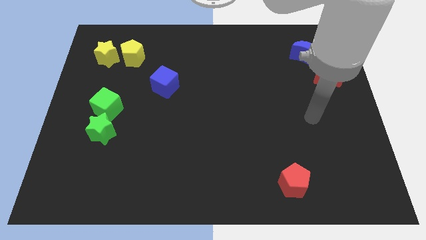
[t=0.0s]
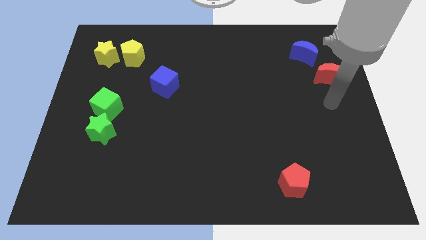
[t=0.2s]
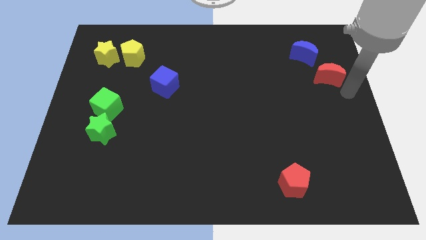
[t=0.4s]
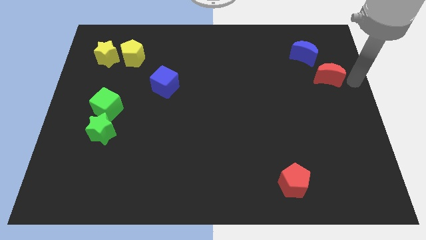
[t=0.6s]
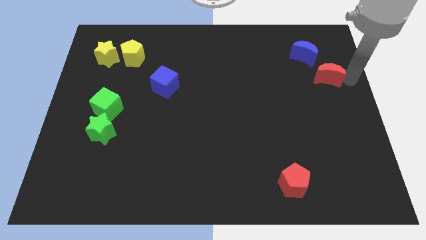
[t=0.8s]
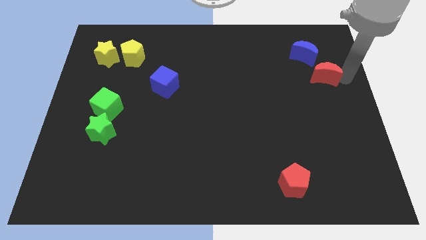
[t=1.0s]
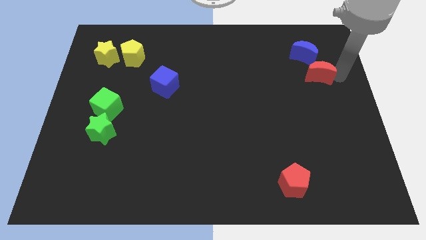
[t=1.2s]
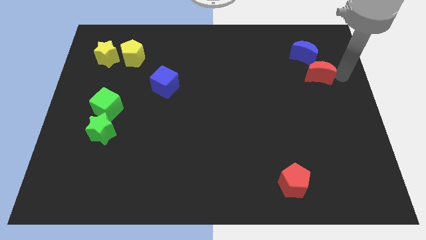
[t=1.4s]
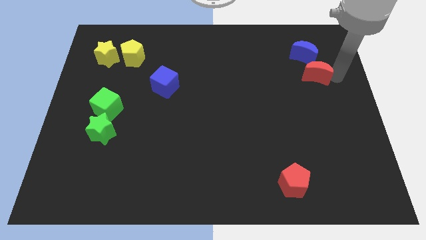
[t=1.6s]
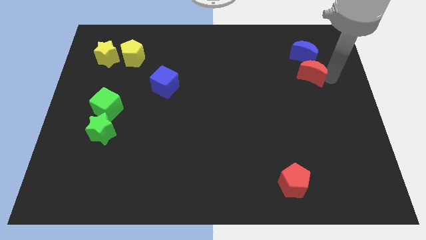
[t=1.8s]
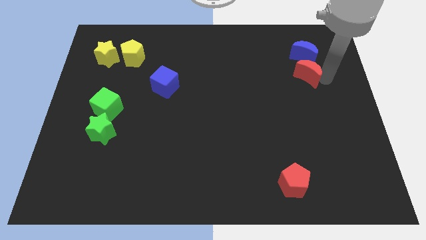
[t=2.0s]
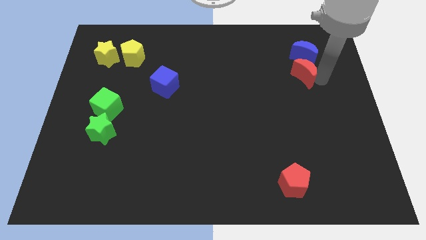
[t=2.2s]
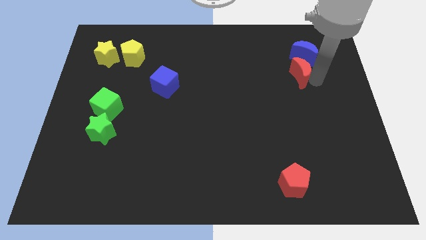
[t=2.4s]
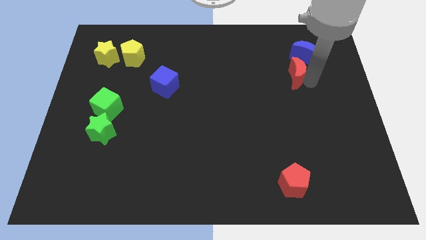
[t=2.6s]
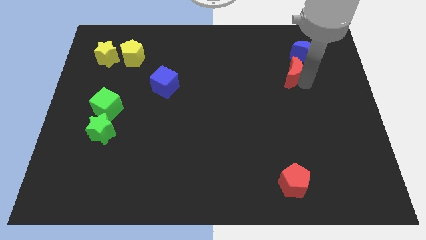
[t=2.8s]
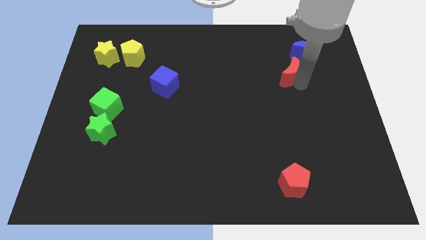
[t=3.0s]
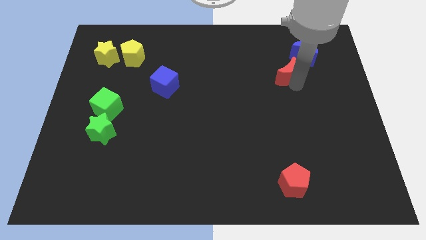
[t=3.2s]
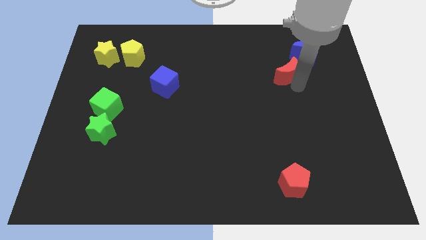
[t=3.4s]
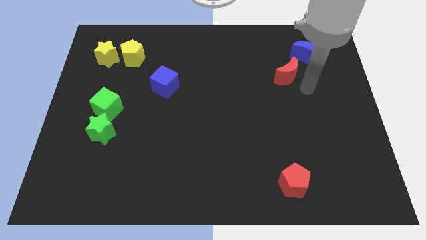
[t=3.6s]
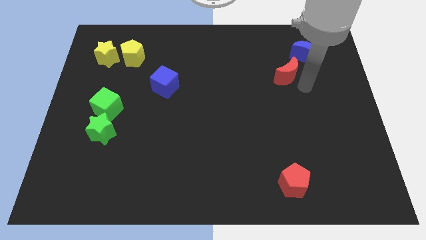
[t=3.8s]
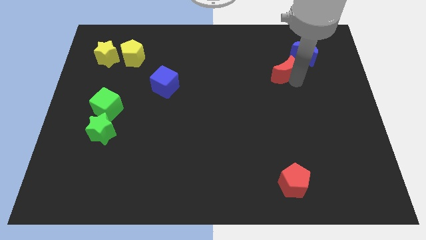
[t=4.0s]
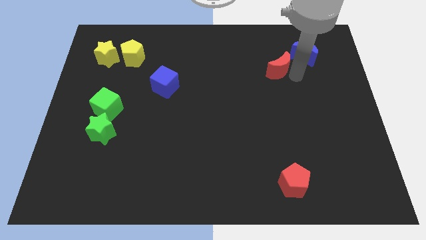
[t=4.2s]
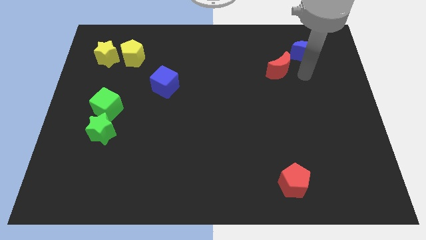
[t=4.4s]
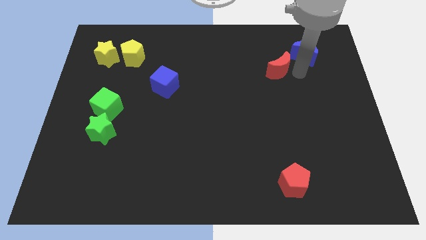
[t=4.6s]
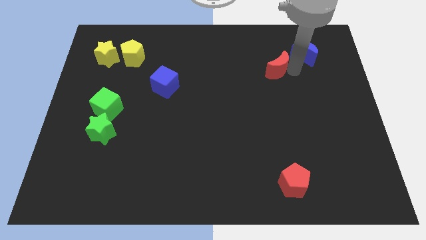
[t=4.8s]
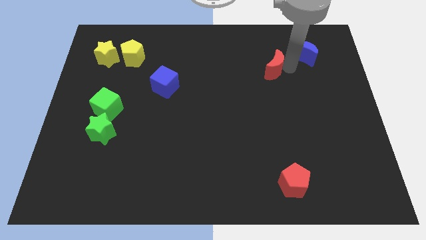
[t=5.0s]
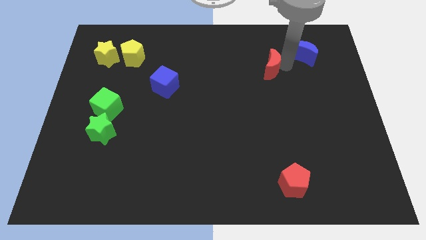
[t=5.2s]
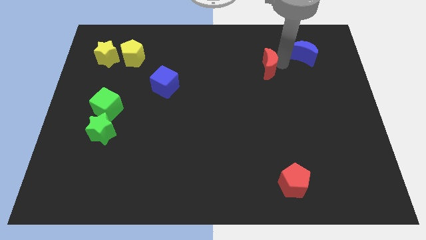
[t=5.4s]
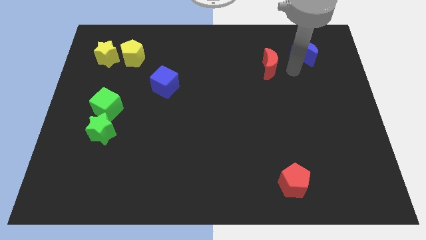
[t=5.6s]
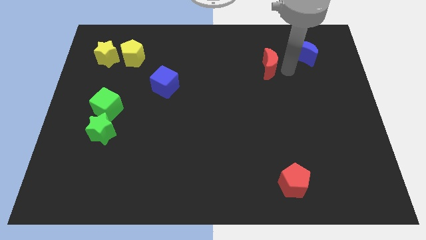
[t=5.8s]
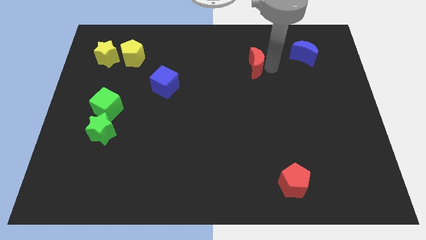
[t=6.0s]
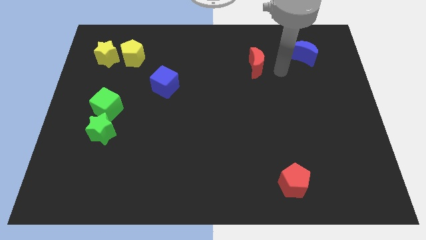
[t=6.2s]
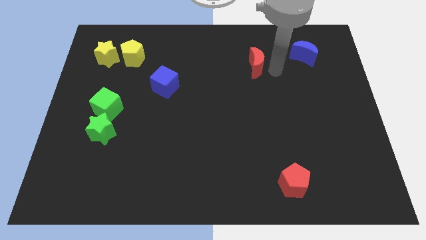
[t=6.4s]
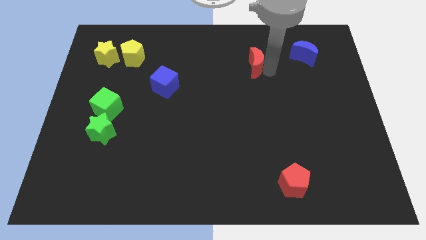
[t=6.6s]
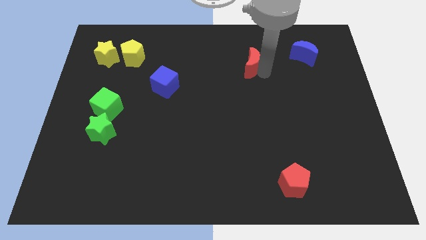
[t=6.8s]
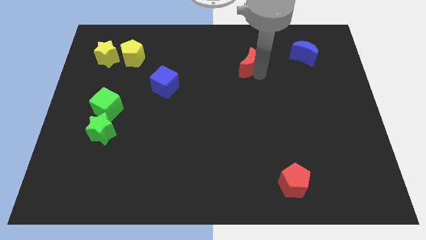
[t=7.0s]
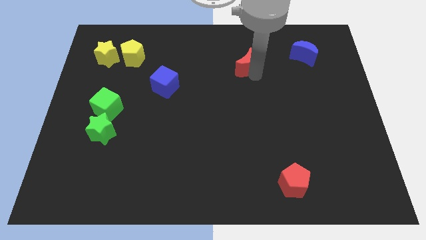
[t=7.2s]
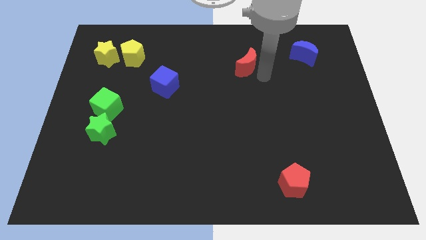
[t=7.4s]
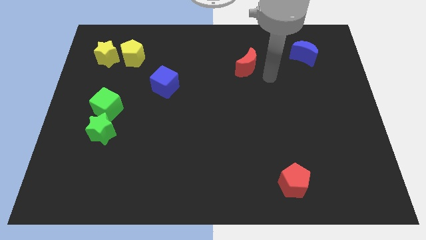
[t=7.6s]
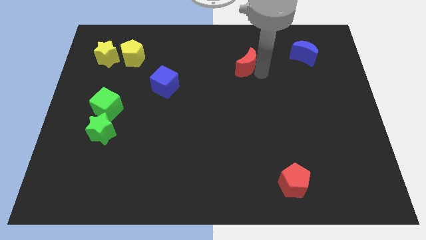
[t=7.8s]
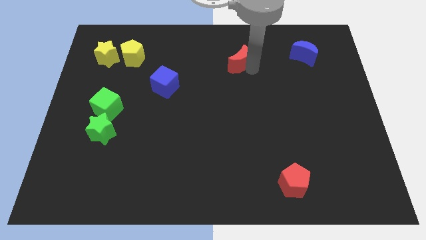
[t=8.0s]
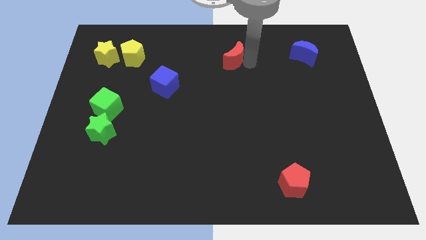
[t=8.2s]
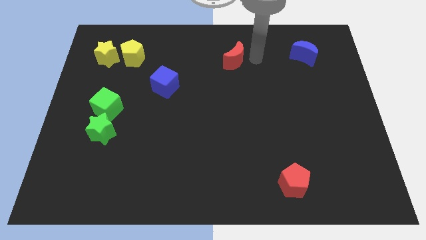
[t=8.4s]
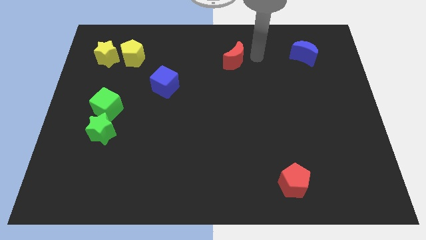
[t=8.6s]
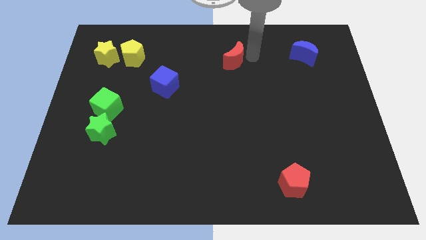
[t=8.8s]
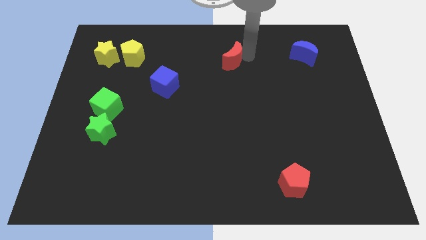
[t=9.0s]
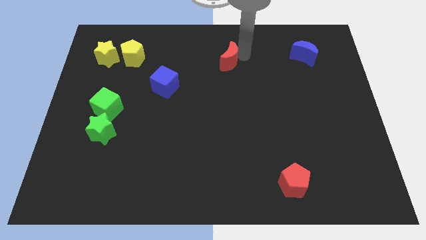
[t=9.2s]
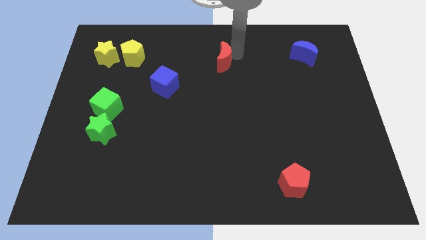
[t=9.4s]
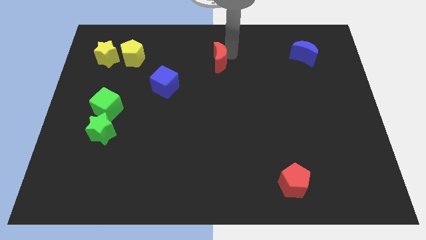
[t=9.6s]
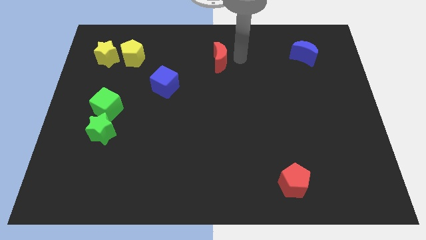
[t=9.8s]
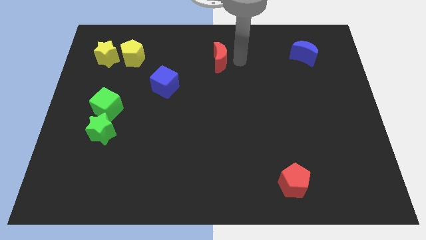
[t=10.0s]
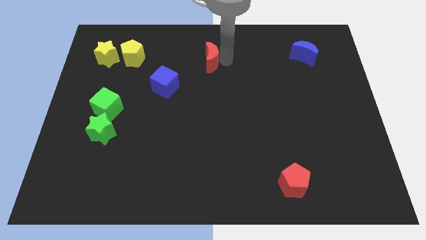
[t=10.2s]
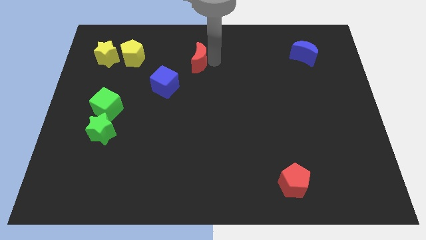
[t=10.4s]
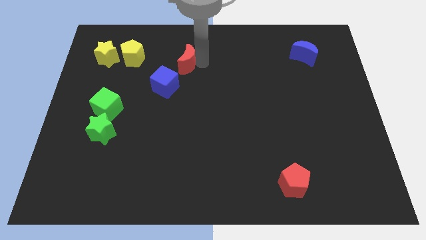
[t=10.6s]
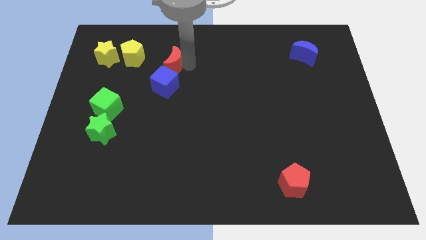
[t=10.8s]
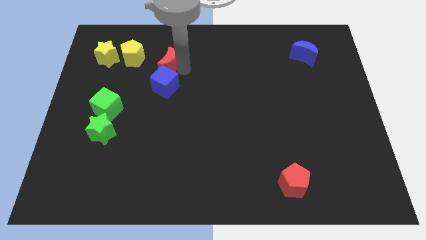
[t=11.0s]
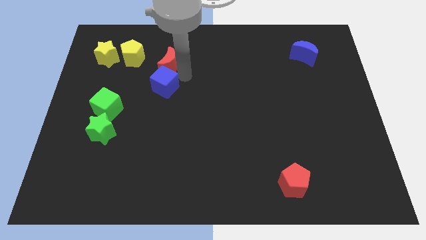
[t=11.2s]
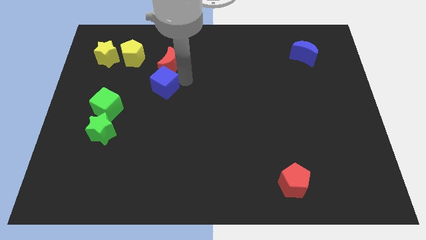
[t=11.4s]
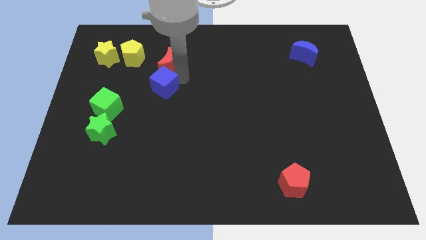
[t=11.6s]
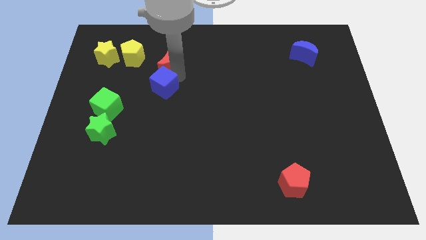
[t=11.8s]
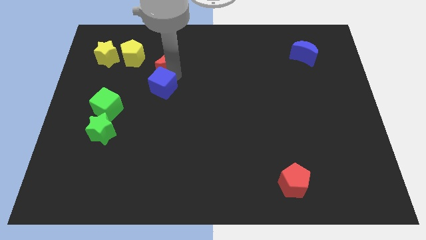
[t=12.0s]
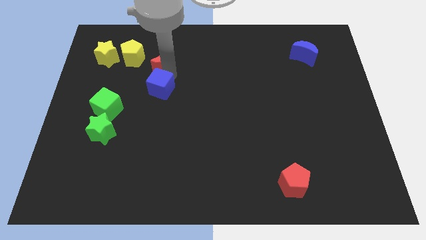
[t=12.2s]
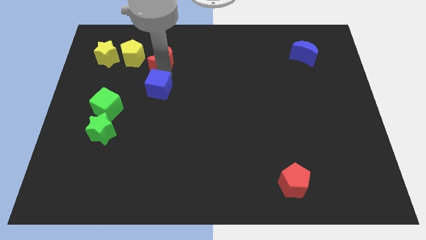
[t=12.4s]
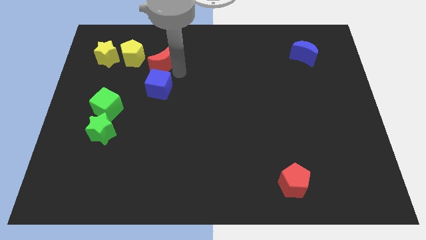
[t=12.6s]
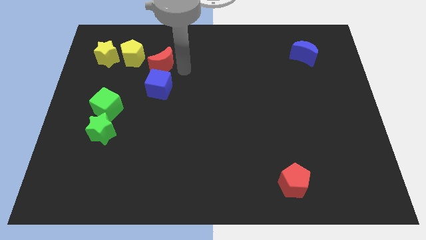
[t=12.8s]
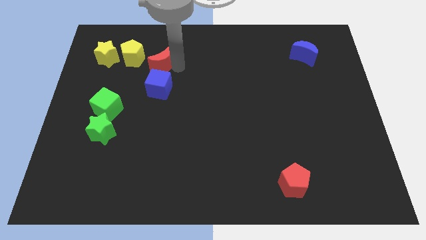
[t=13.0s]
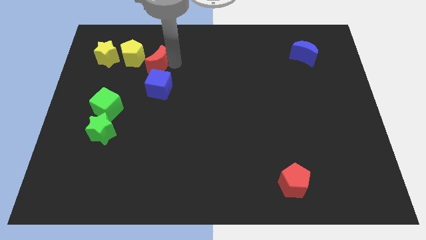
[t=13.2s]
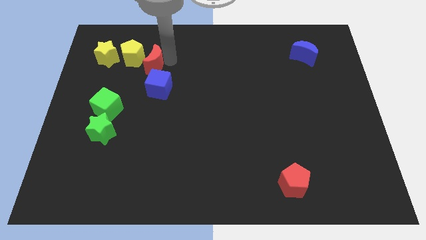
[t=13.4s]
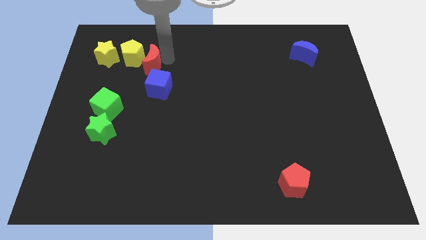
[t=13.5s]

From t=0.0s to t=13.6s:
put the red moon next to the yellow pentagon

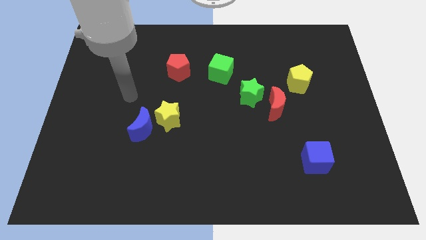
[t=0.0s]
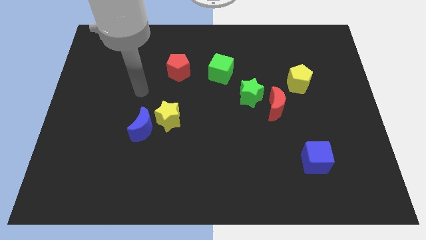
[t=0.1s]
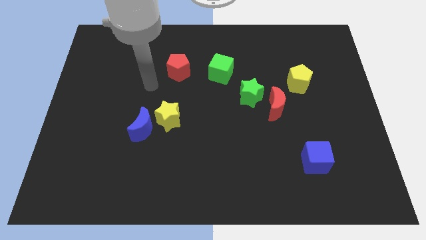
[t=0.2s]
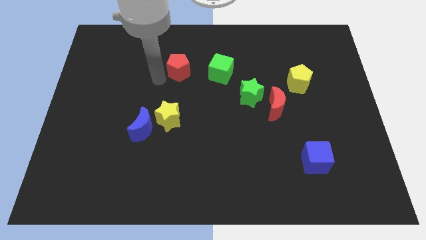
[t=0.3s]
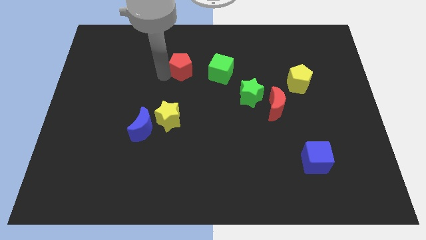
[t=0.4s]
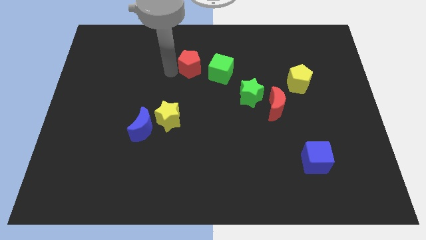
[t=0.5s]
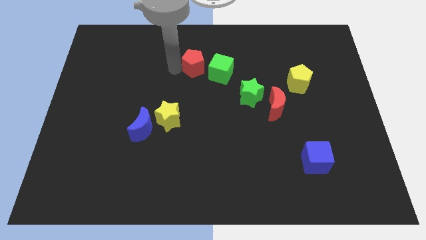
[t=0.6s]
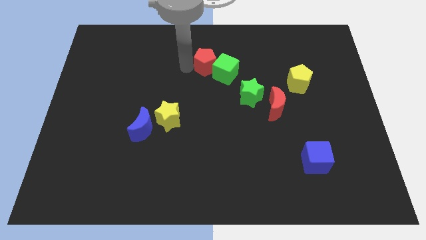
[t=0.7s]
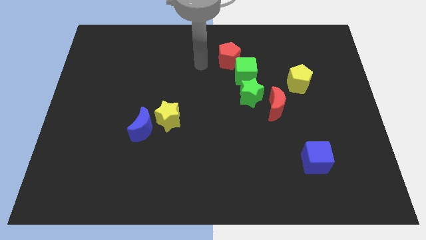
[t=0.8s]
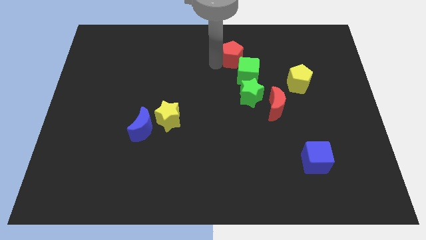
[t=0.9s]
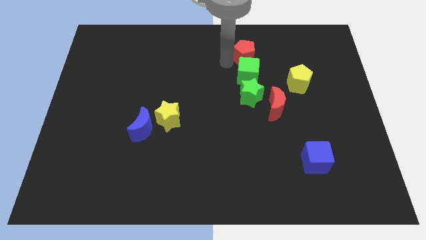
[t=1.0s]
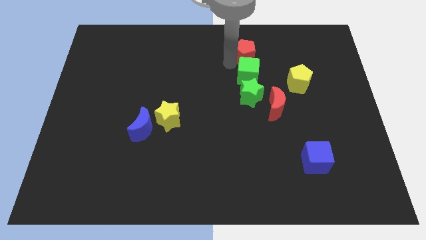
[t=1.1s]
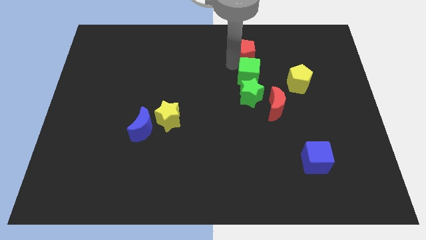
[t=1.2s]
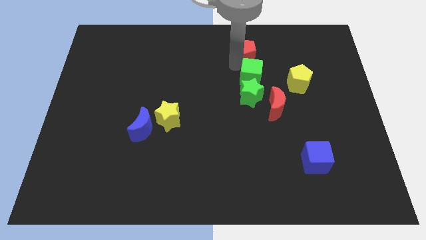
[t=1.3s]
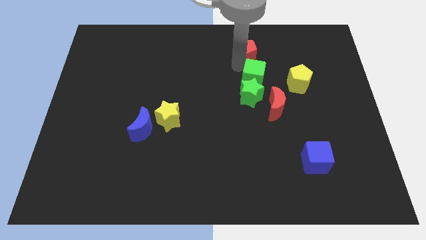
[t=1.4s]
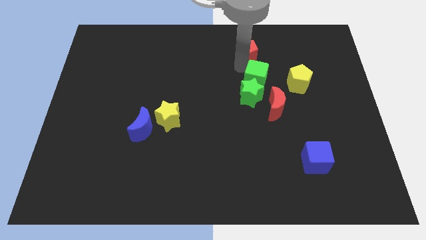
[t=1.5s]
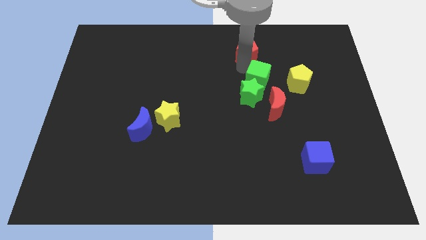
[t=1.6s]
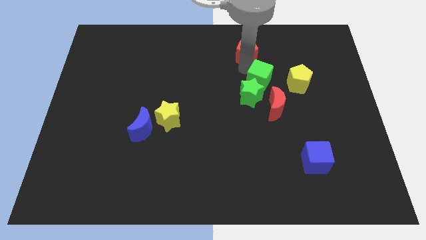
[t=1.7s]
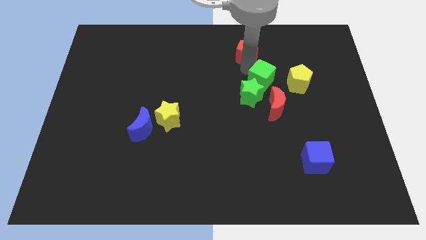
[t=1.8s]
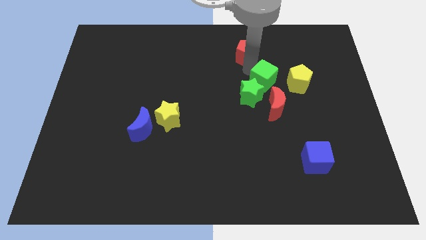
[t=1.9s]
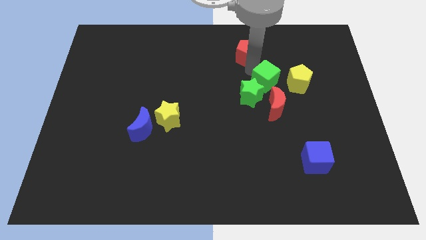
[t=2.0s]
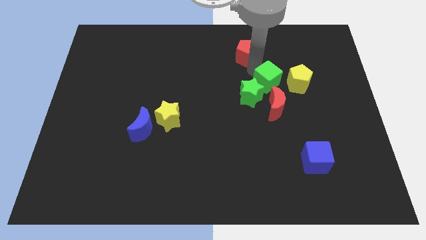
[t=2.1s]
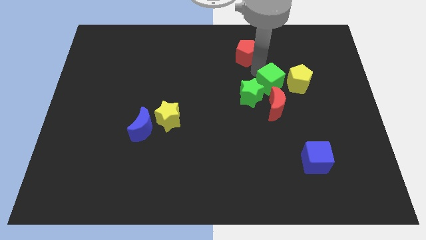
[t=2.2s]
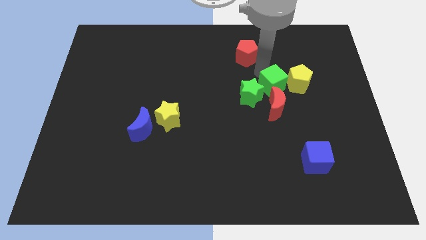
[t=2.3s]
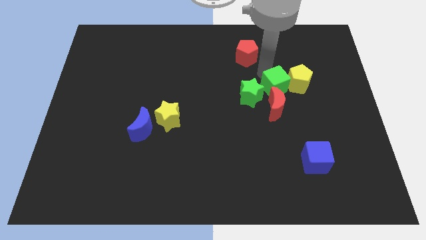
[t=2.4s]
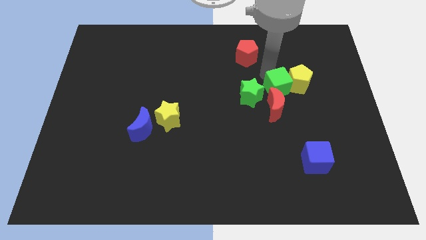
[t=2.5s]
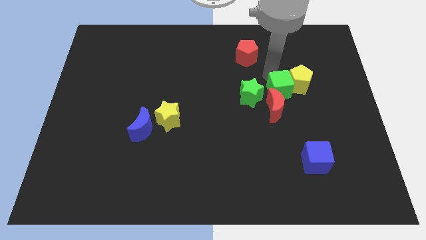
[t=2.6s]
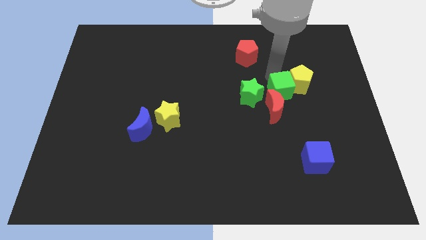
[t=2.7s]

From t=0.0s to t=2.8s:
put the green cube close to the red moon
